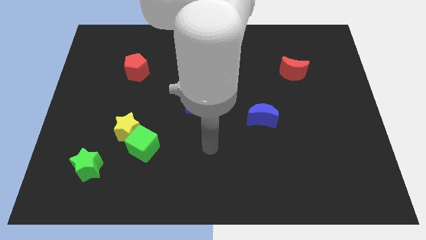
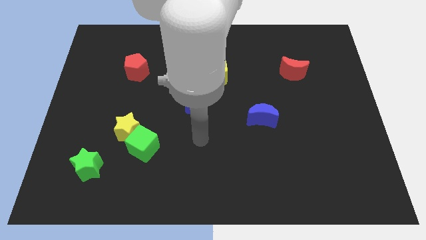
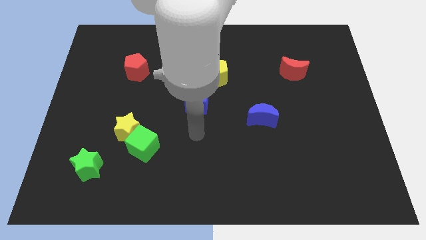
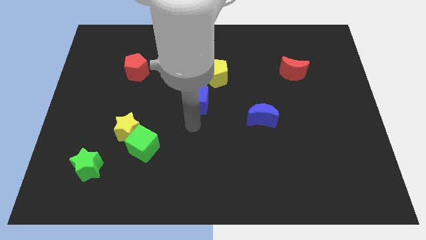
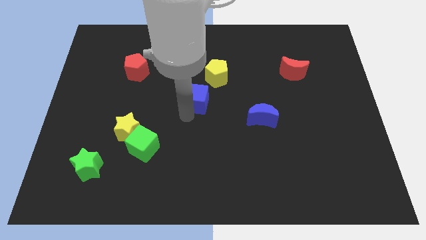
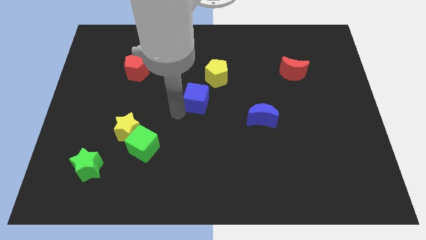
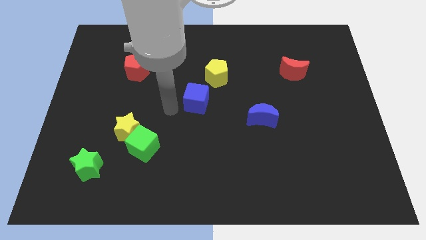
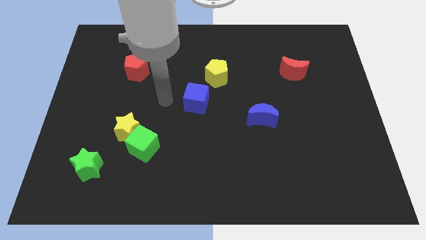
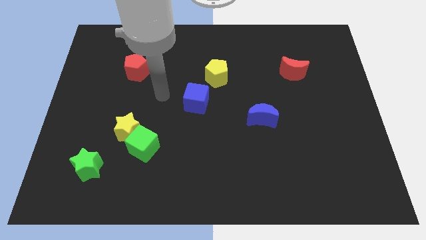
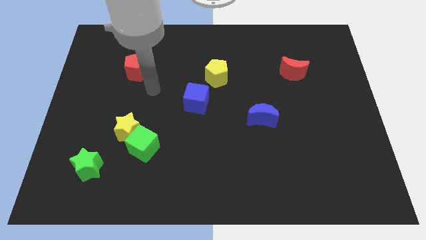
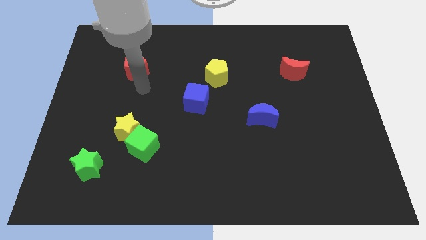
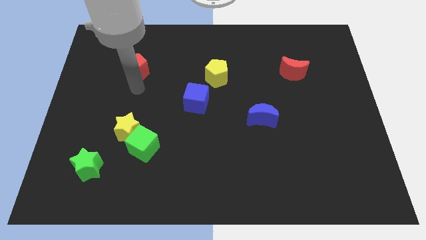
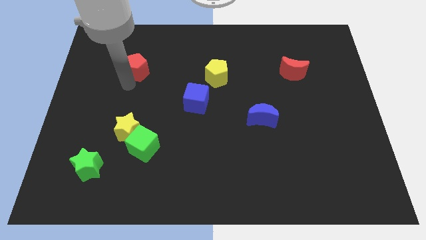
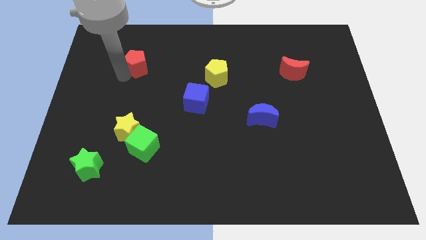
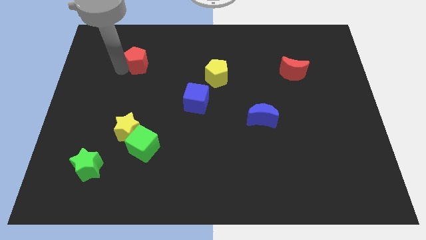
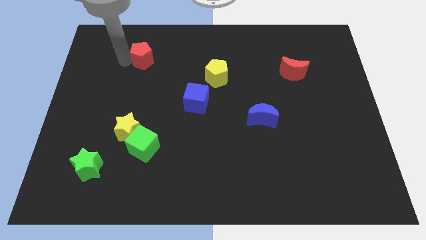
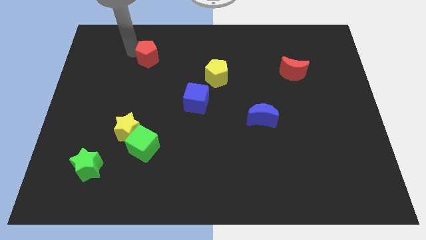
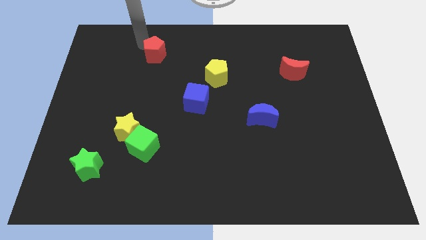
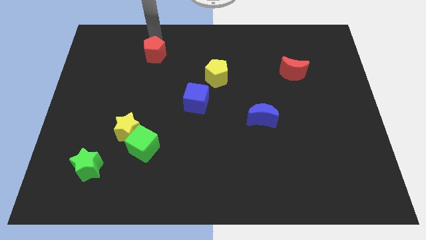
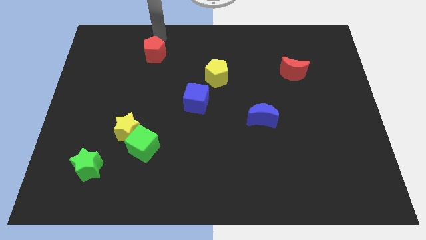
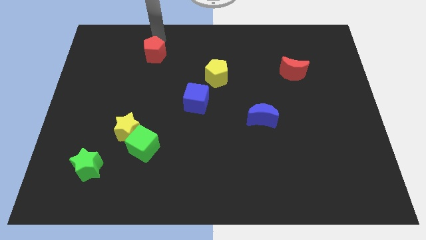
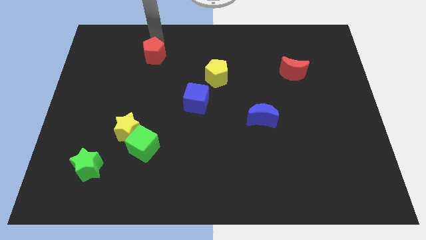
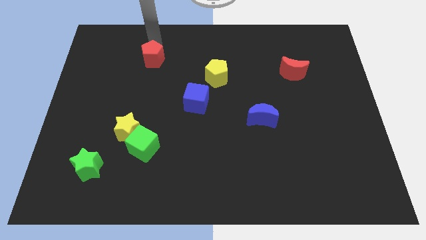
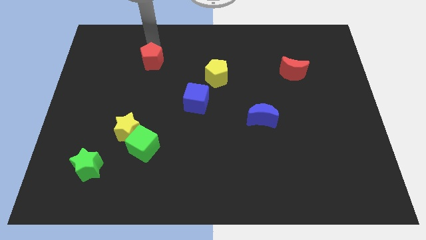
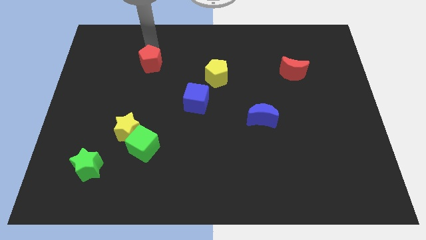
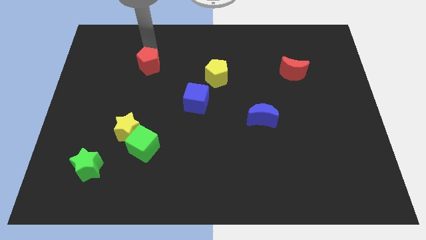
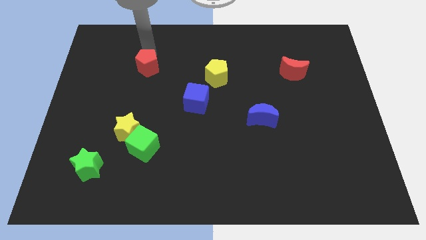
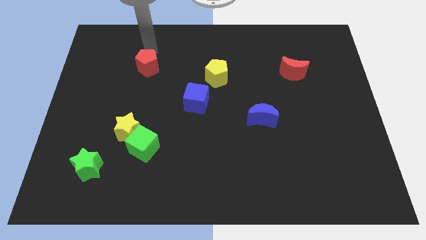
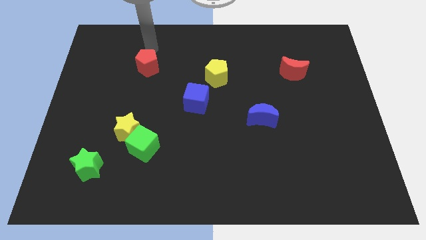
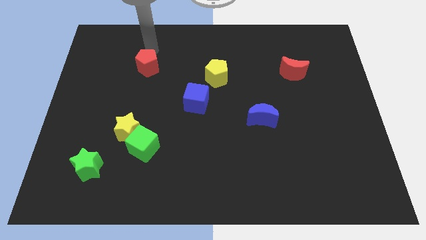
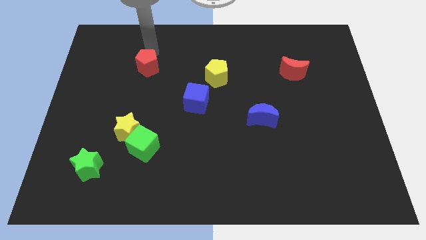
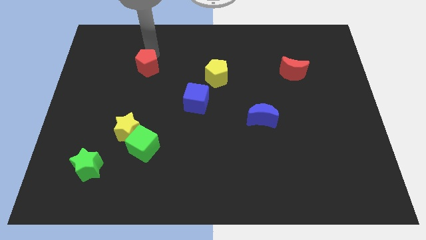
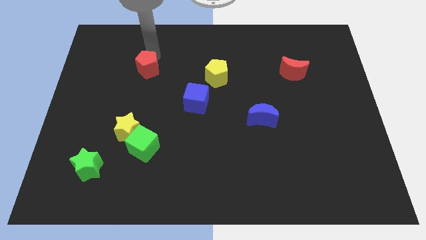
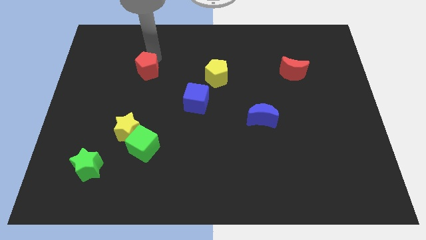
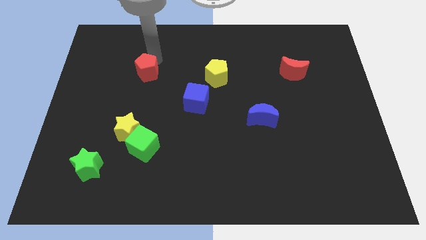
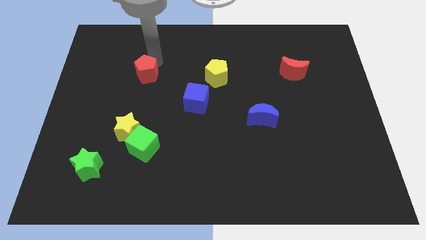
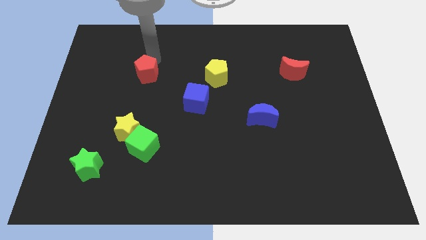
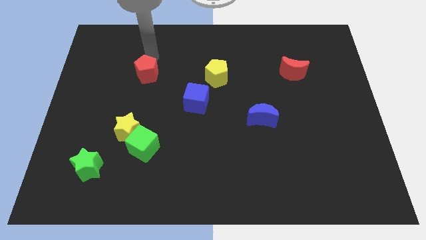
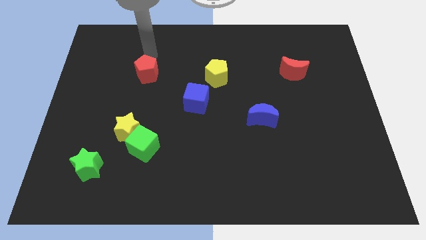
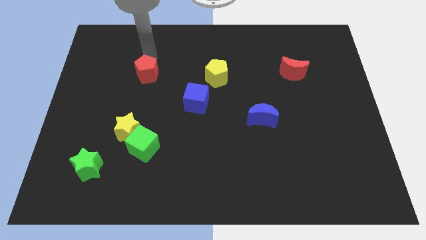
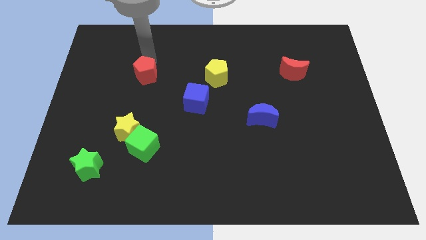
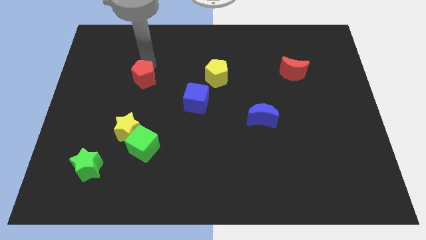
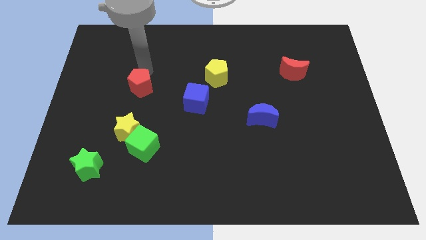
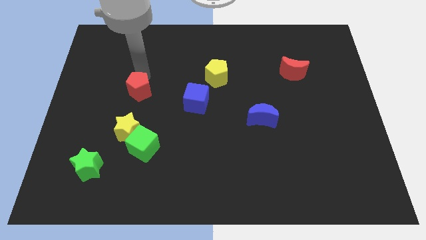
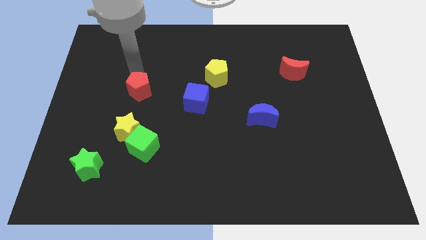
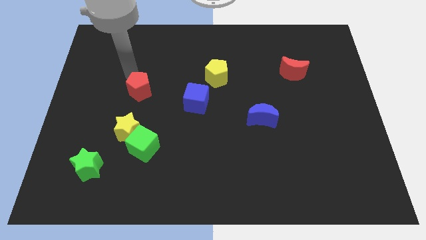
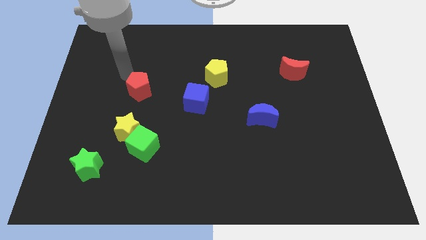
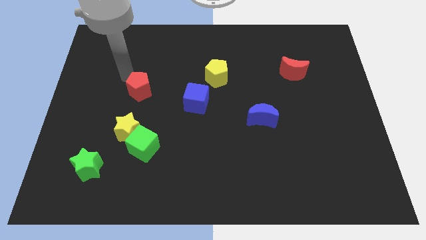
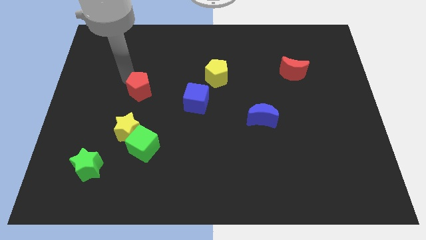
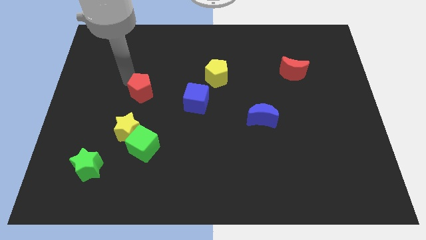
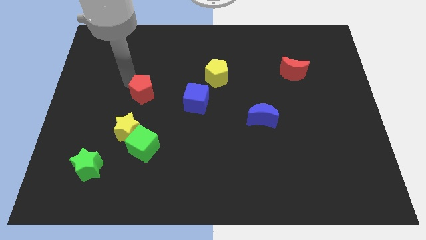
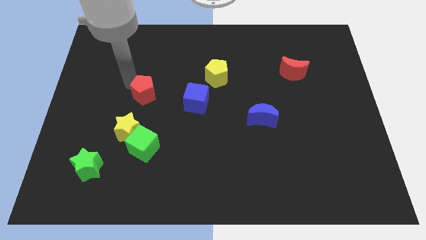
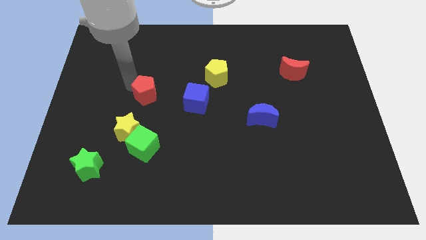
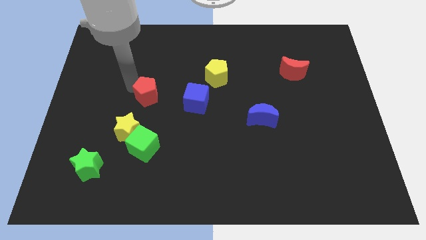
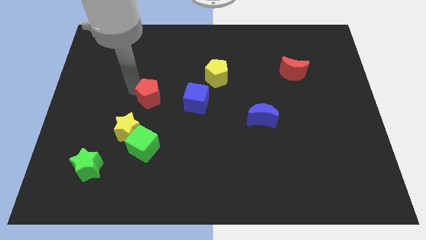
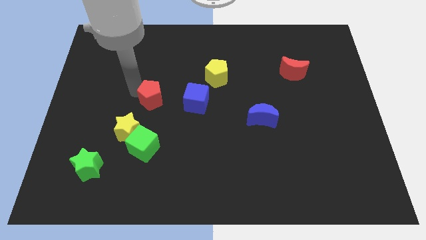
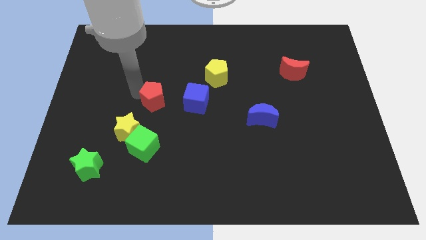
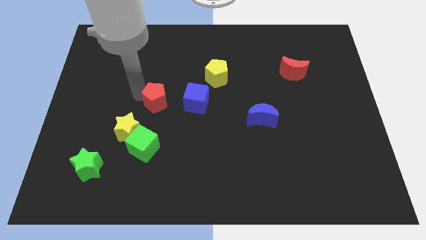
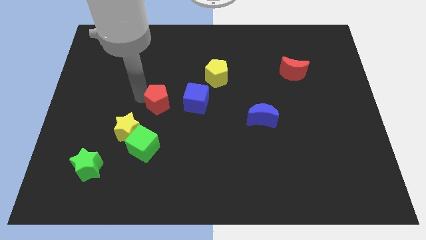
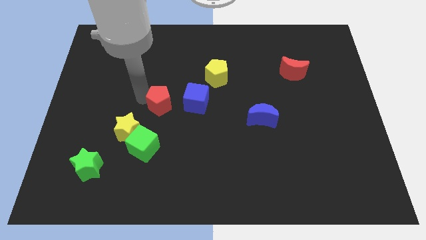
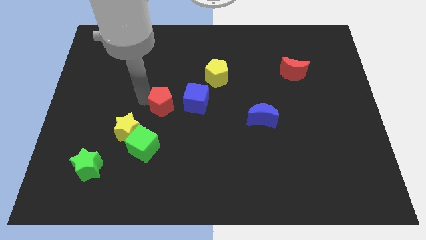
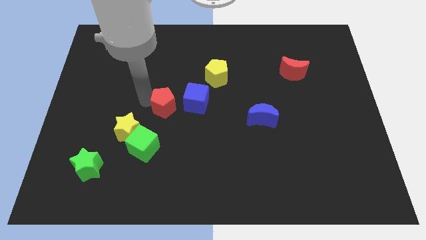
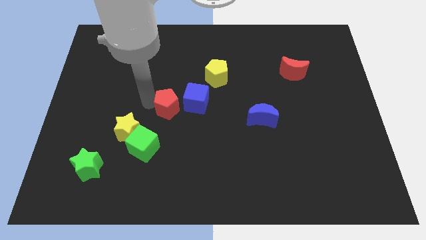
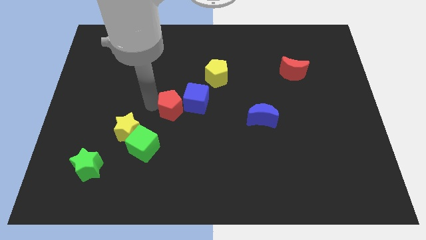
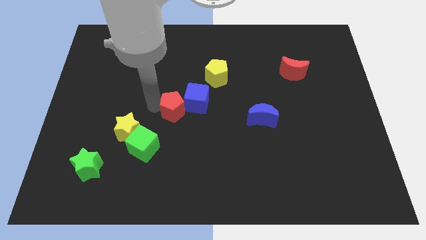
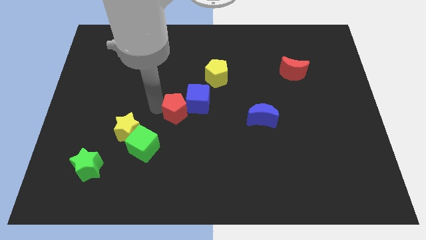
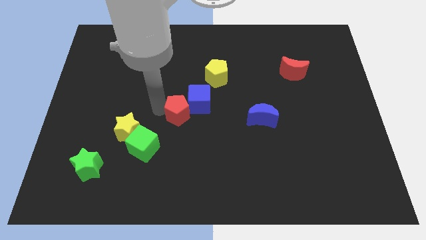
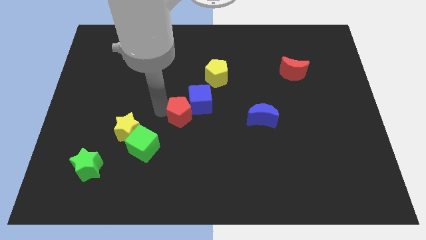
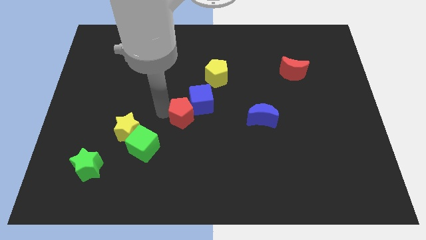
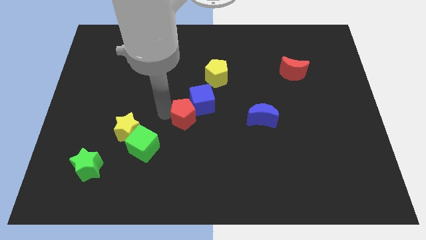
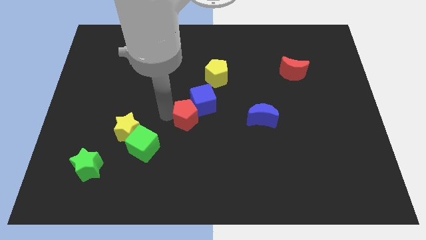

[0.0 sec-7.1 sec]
push the red pentagon downwards and right diagonally

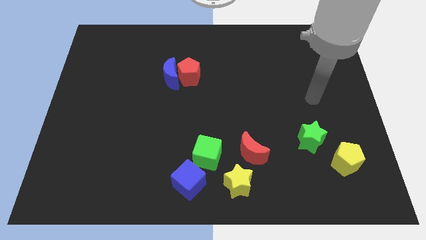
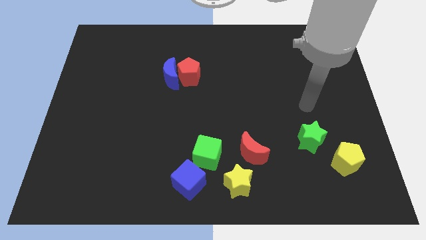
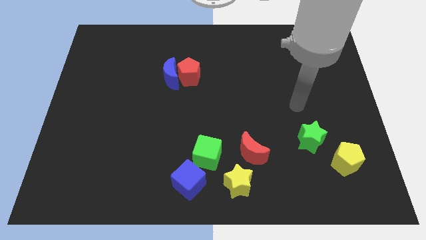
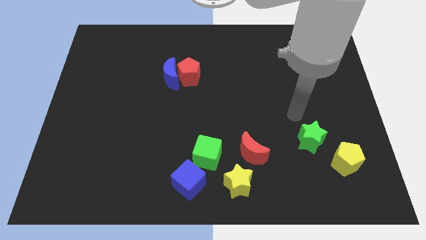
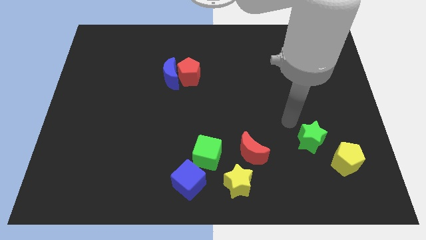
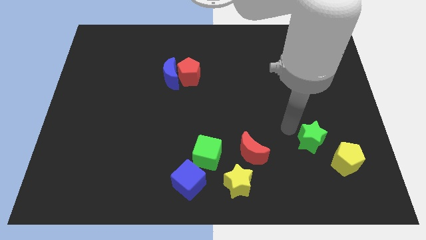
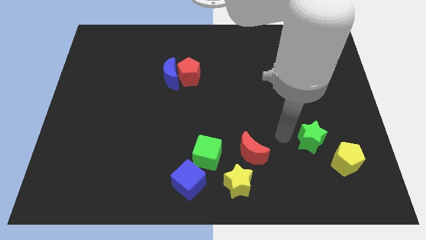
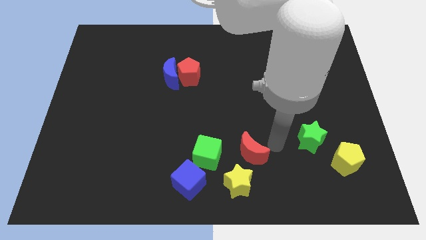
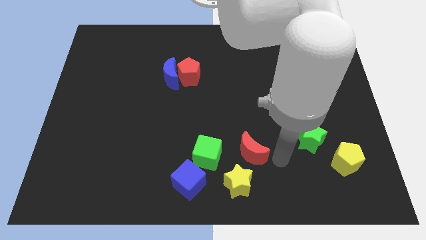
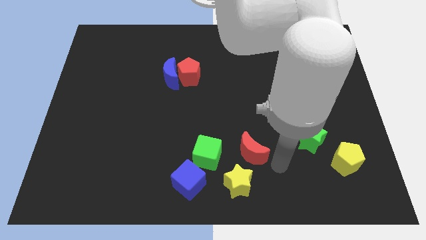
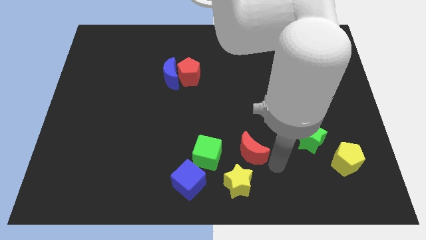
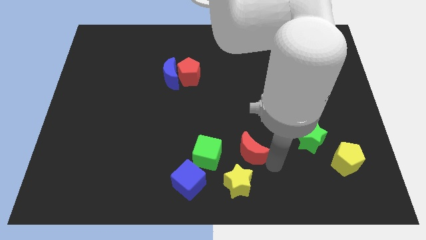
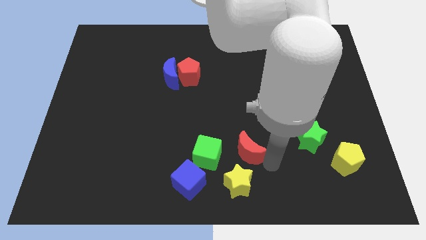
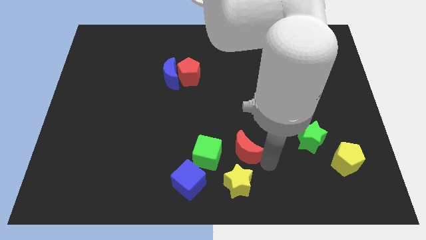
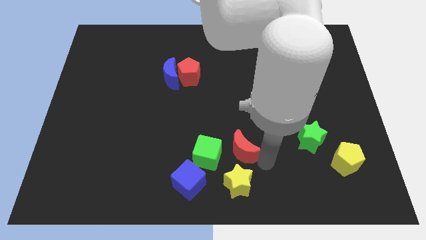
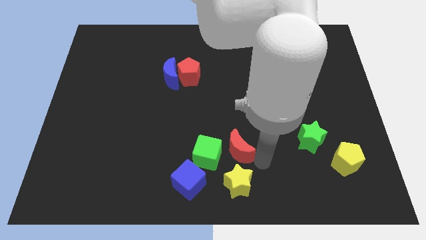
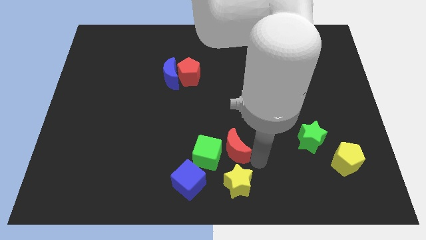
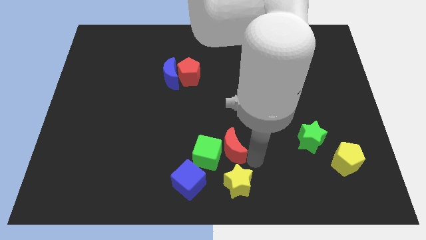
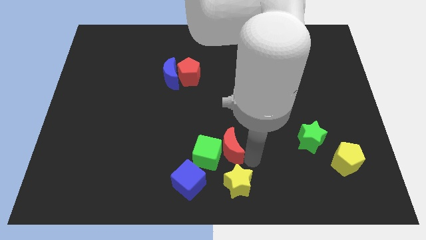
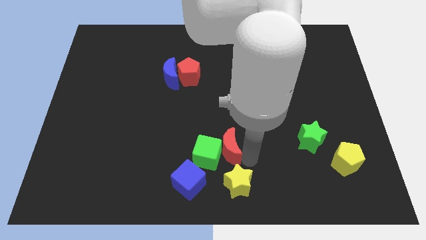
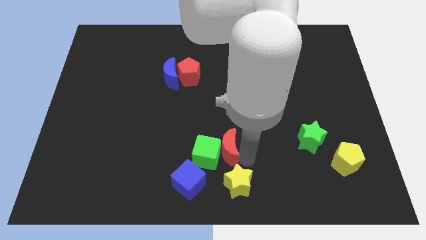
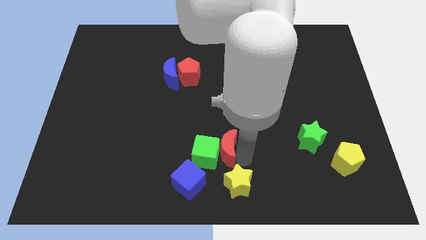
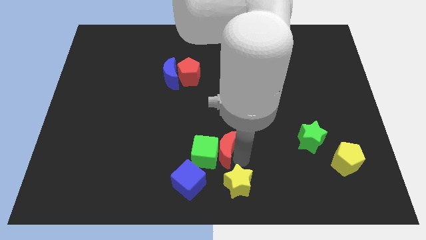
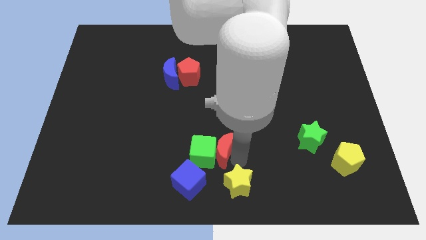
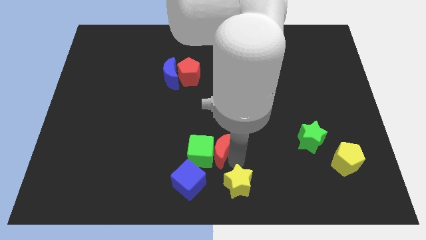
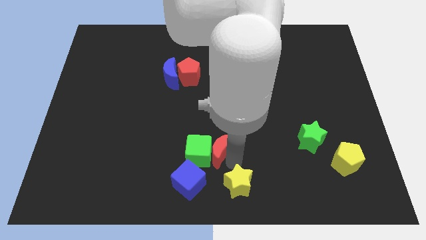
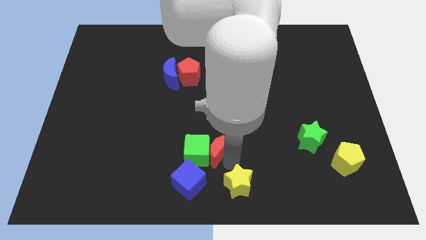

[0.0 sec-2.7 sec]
move the red moon a bit left
